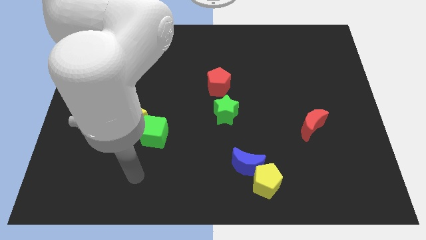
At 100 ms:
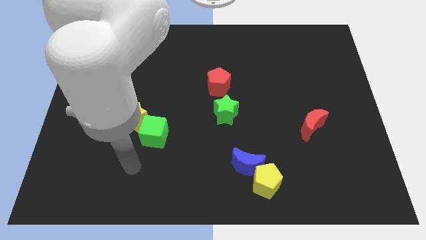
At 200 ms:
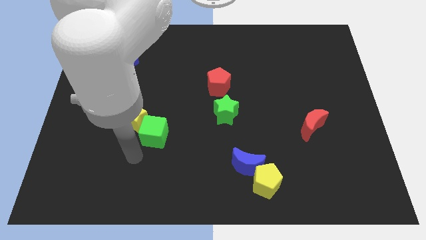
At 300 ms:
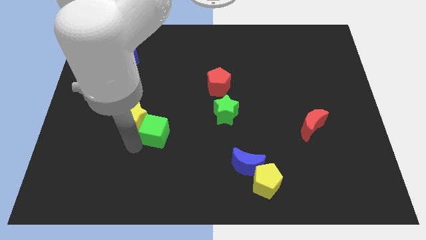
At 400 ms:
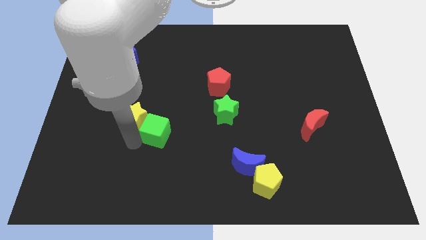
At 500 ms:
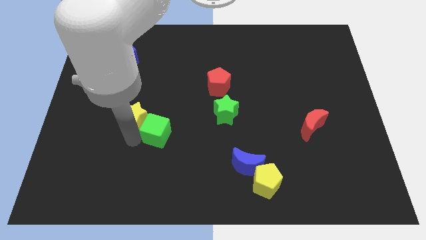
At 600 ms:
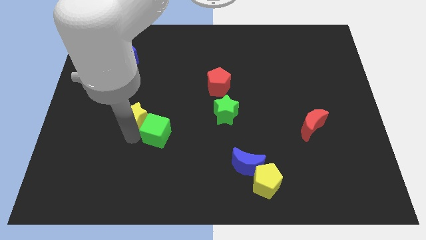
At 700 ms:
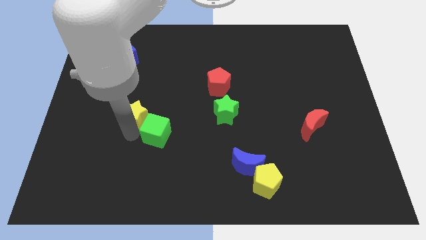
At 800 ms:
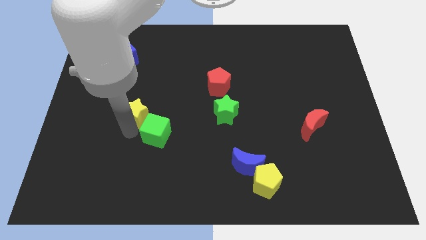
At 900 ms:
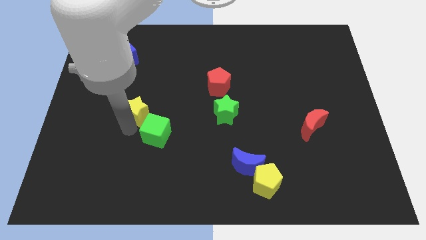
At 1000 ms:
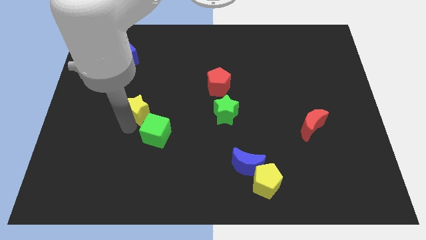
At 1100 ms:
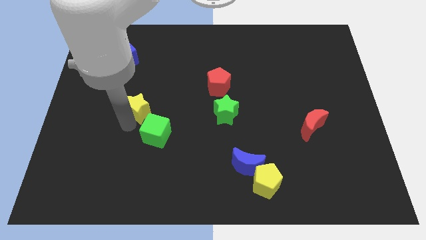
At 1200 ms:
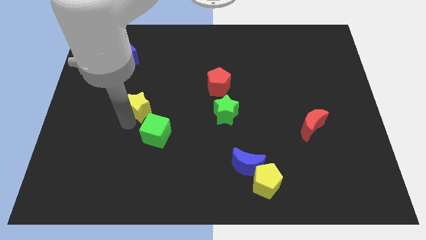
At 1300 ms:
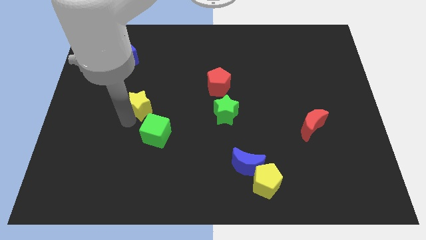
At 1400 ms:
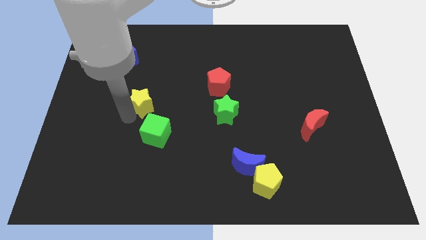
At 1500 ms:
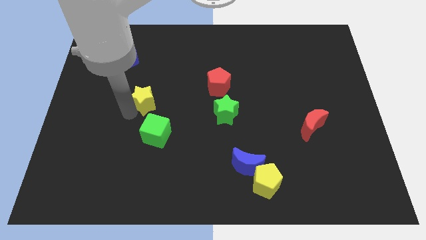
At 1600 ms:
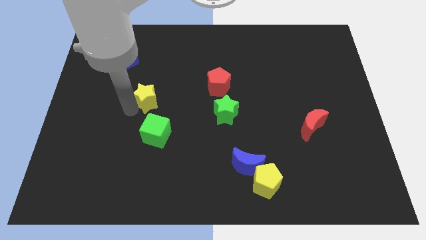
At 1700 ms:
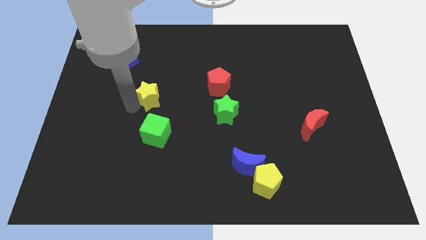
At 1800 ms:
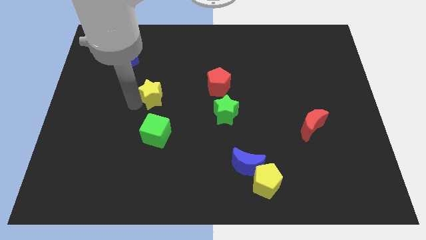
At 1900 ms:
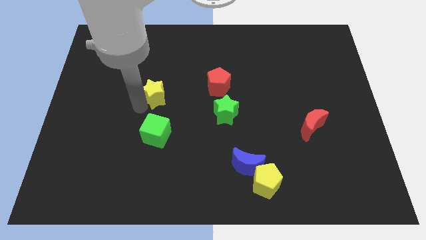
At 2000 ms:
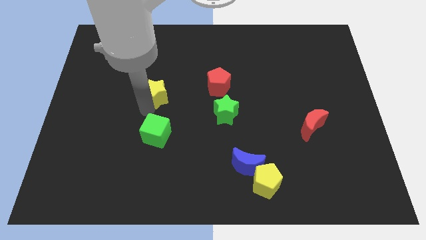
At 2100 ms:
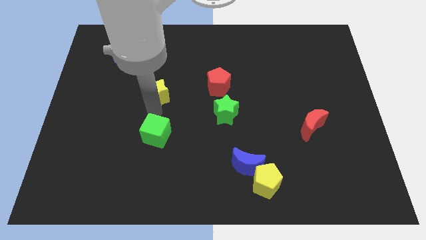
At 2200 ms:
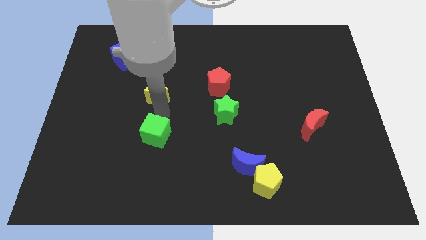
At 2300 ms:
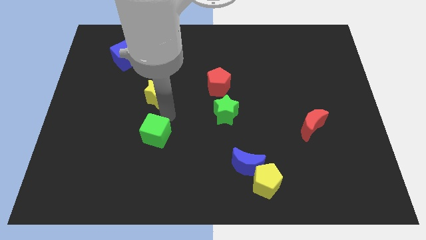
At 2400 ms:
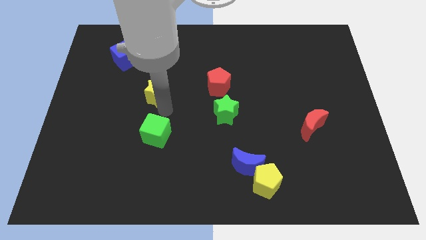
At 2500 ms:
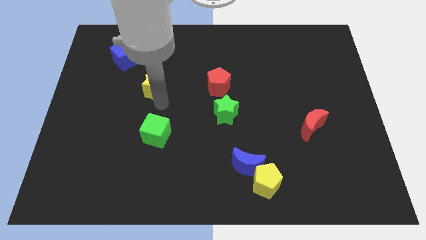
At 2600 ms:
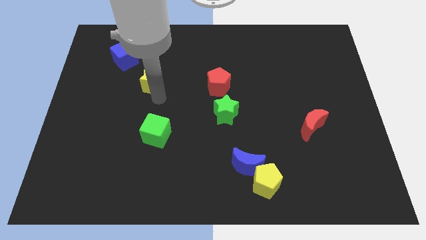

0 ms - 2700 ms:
push the yellow star to the bottom right side of the blue cube

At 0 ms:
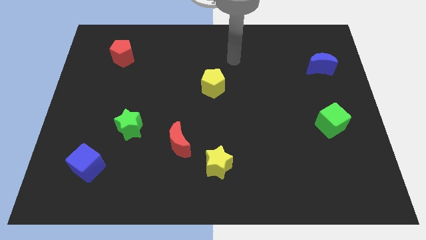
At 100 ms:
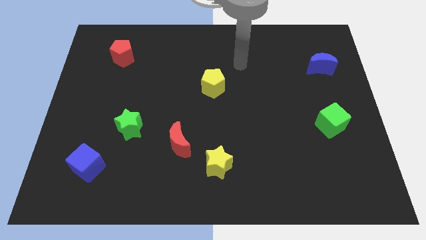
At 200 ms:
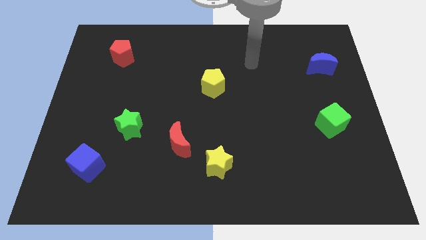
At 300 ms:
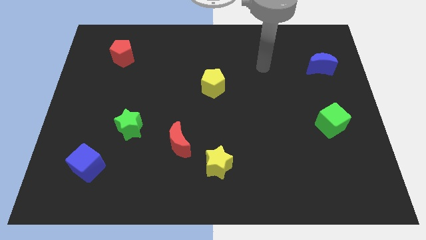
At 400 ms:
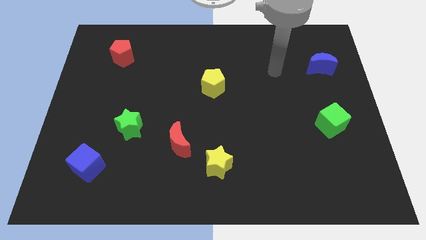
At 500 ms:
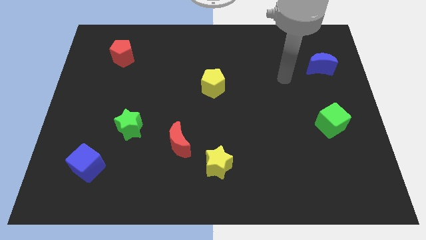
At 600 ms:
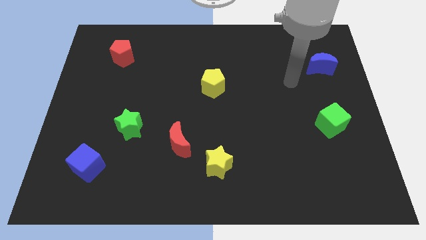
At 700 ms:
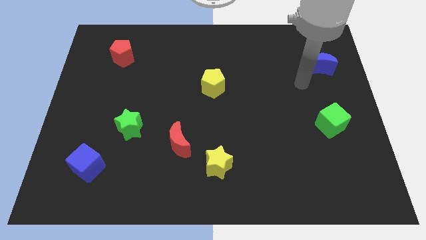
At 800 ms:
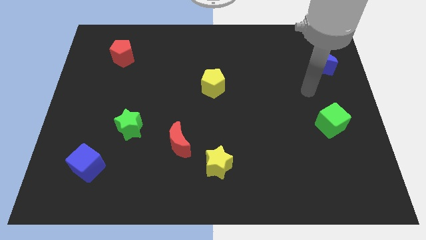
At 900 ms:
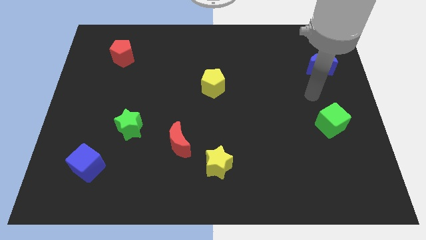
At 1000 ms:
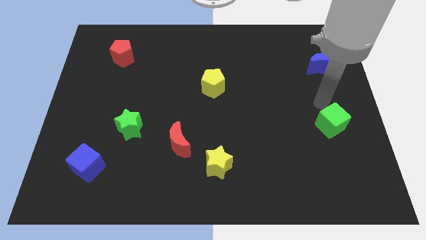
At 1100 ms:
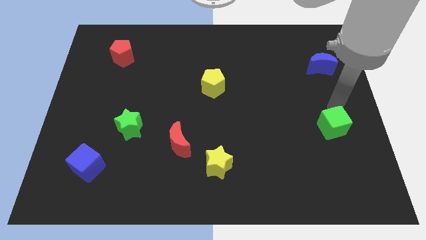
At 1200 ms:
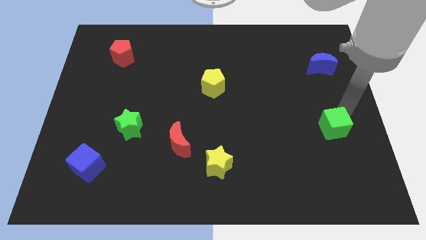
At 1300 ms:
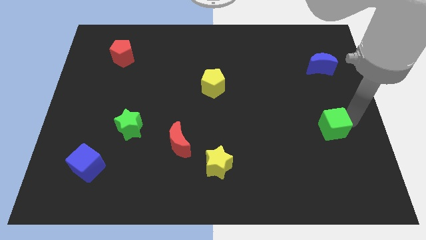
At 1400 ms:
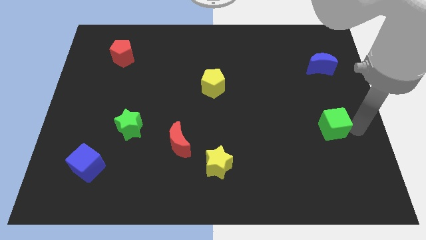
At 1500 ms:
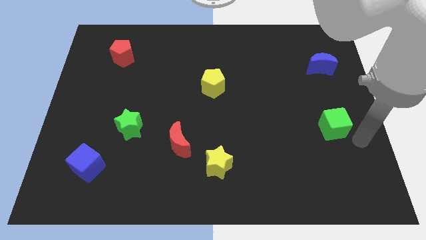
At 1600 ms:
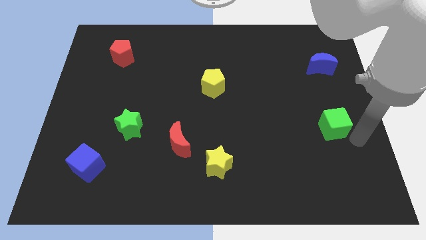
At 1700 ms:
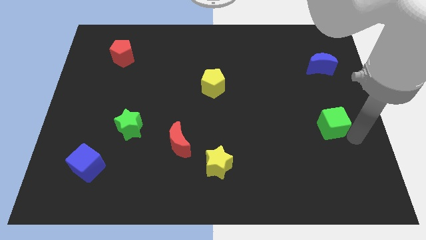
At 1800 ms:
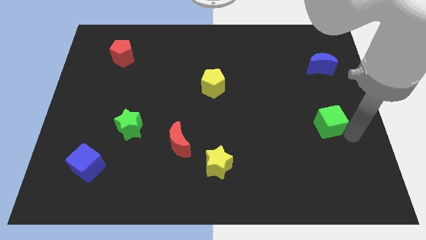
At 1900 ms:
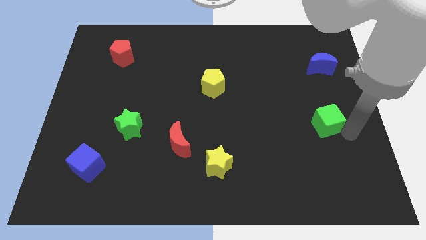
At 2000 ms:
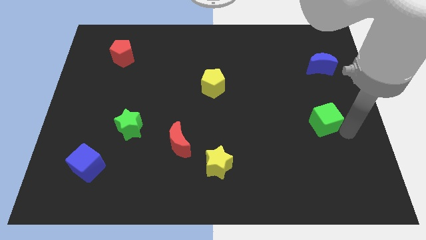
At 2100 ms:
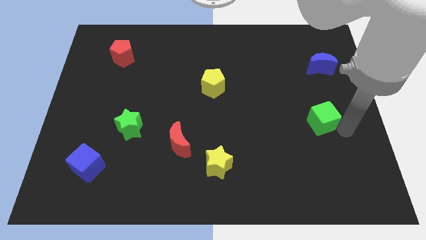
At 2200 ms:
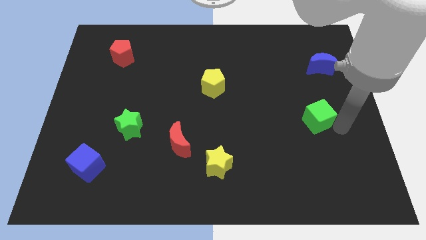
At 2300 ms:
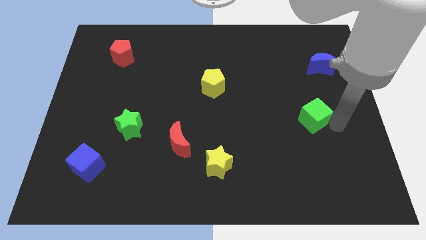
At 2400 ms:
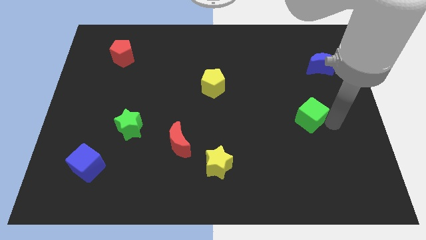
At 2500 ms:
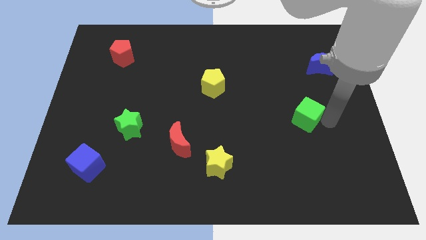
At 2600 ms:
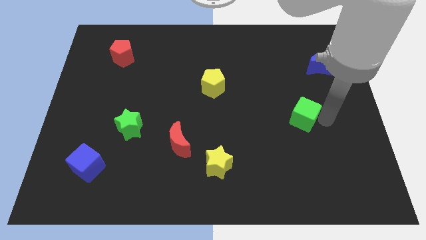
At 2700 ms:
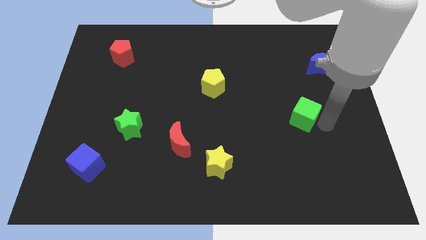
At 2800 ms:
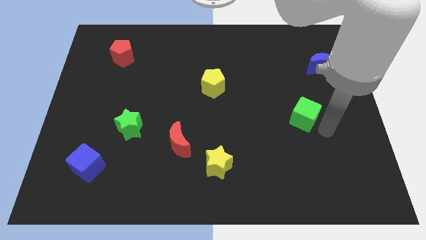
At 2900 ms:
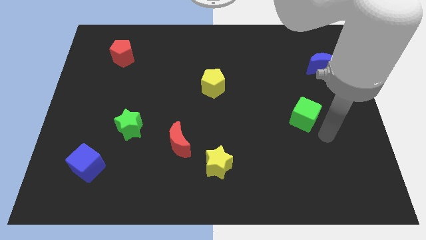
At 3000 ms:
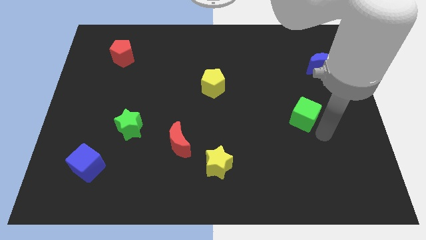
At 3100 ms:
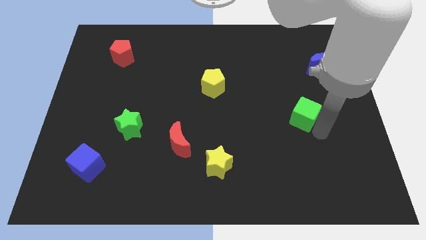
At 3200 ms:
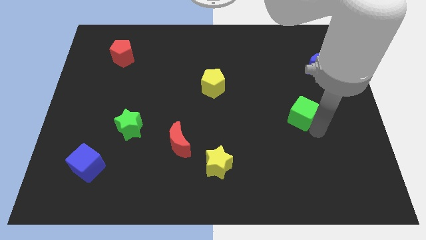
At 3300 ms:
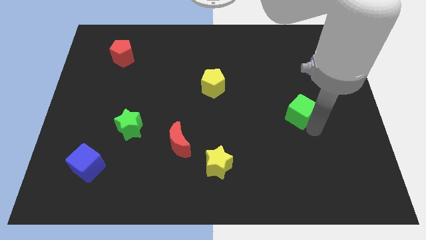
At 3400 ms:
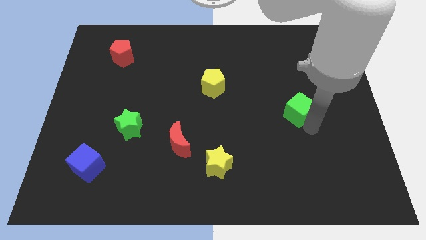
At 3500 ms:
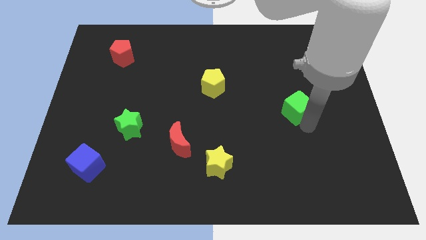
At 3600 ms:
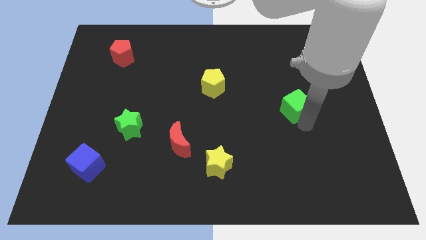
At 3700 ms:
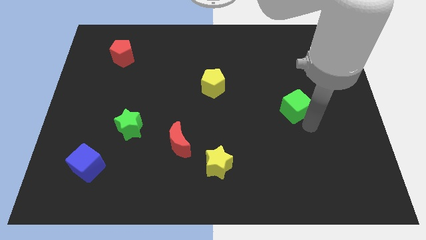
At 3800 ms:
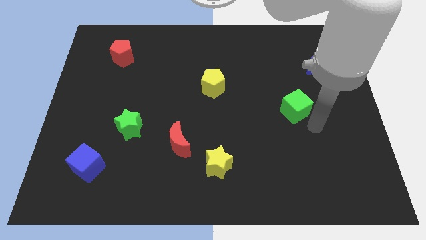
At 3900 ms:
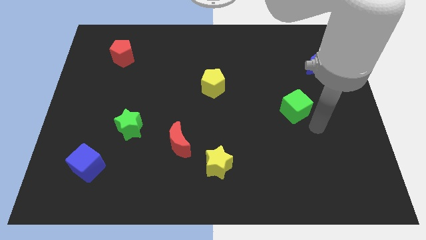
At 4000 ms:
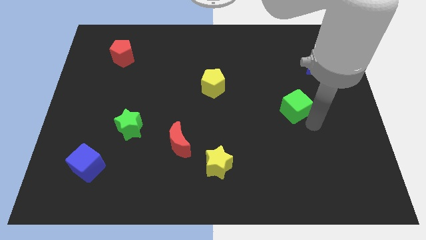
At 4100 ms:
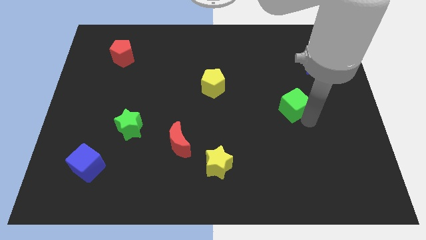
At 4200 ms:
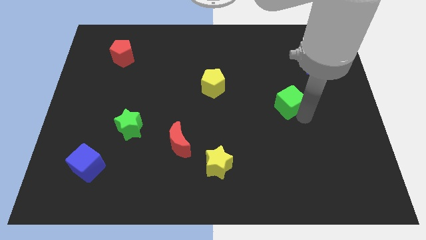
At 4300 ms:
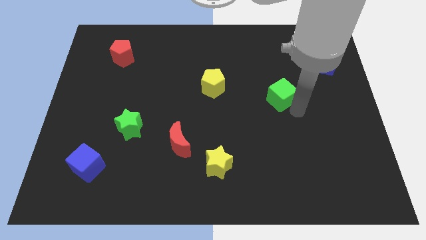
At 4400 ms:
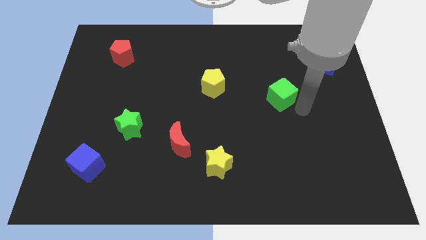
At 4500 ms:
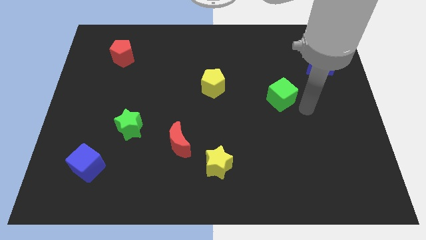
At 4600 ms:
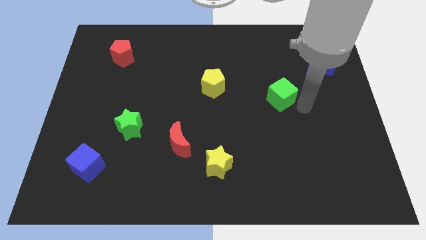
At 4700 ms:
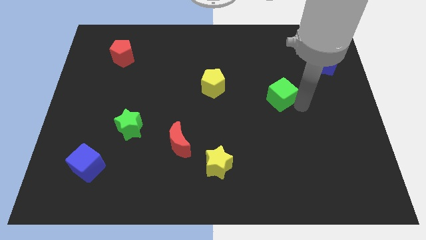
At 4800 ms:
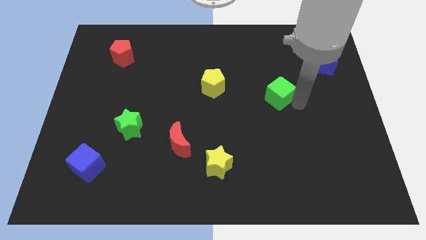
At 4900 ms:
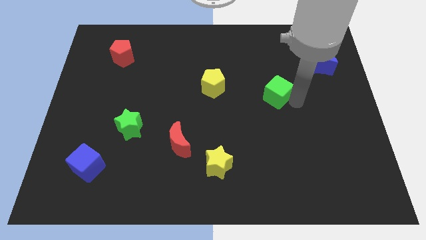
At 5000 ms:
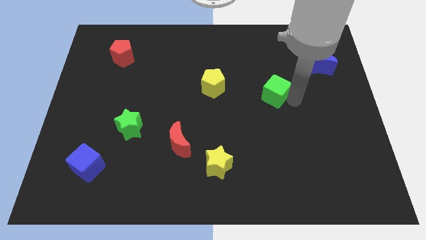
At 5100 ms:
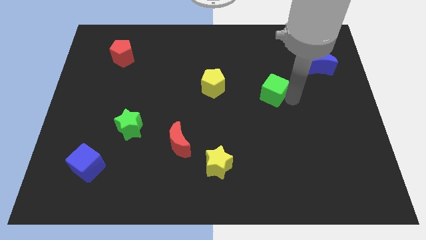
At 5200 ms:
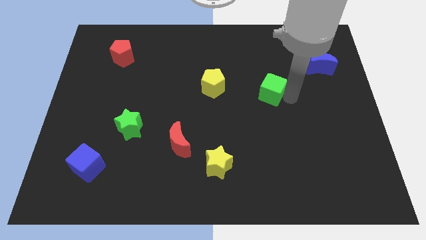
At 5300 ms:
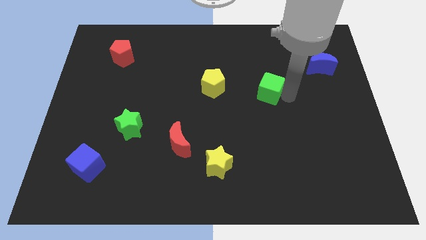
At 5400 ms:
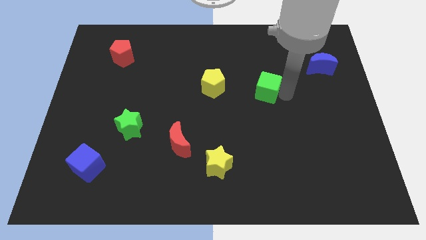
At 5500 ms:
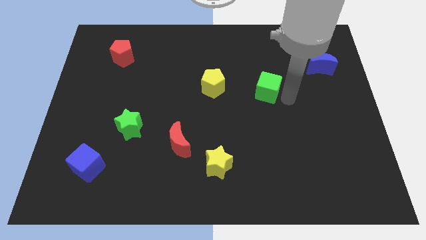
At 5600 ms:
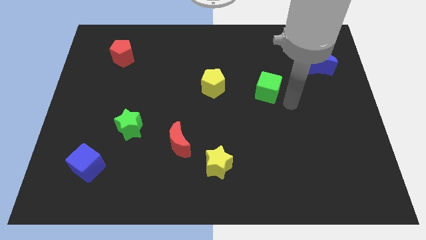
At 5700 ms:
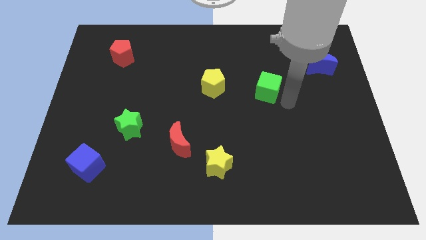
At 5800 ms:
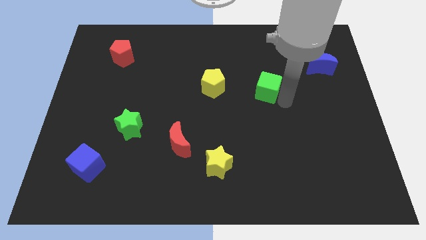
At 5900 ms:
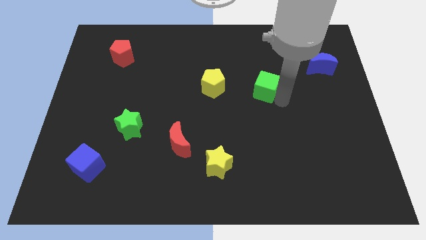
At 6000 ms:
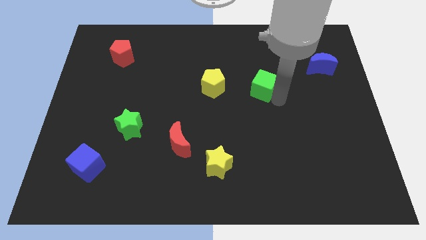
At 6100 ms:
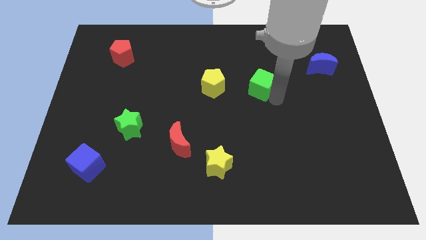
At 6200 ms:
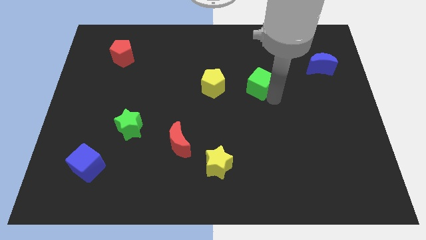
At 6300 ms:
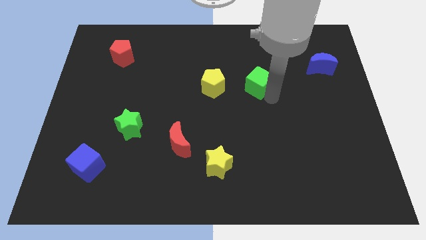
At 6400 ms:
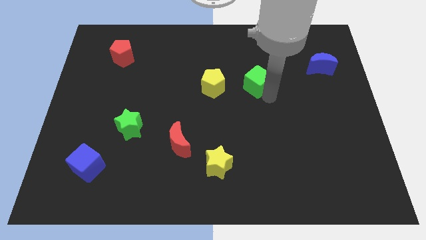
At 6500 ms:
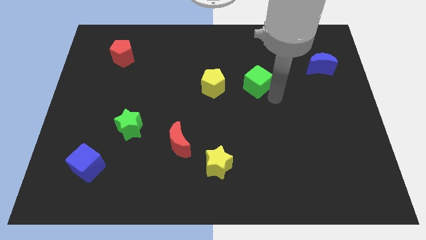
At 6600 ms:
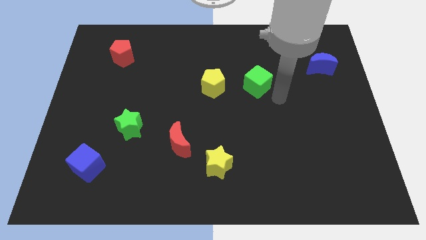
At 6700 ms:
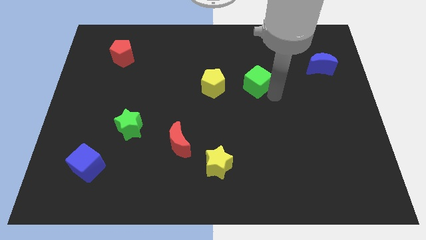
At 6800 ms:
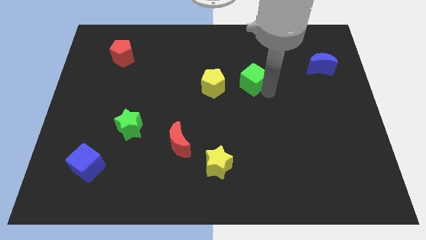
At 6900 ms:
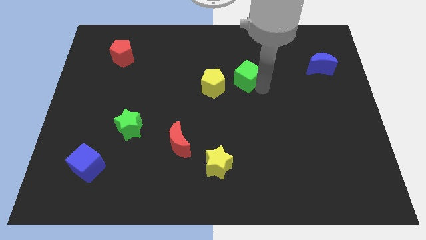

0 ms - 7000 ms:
slide the green cube diagonally up and to the right of the yellow pentagon
